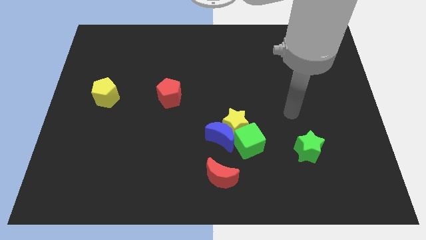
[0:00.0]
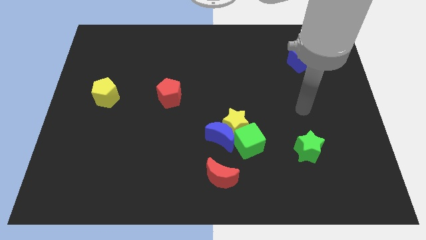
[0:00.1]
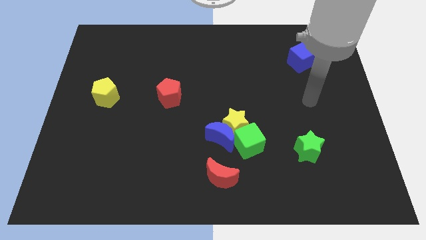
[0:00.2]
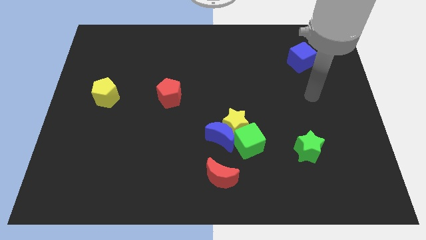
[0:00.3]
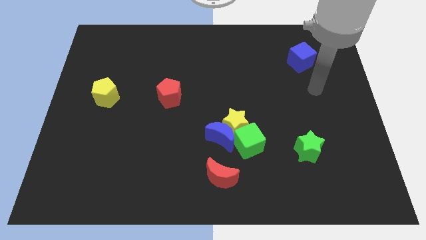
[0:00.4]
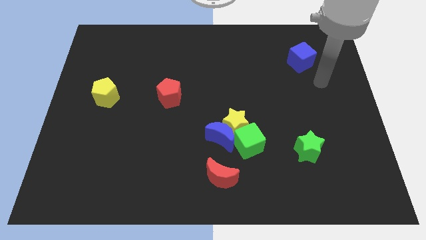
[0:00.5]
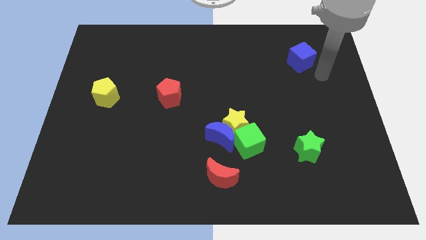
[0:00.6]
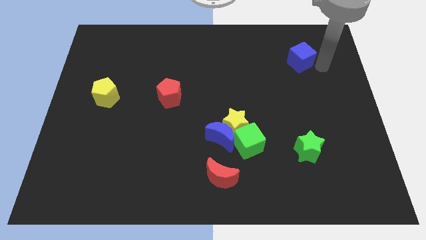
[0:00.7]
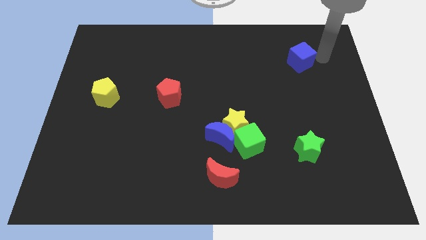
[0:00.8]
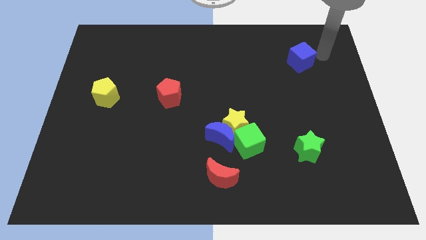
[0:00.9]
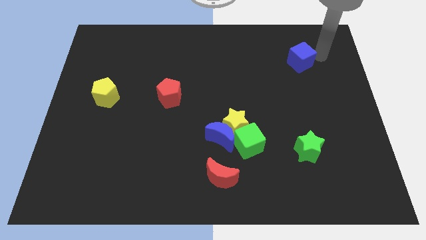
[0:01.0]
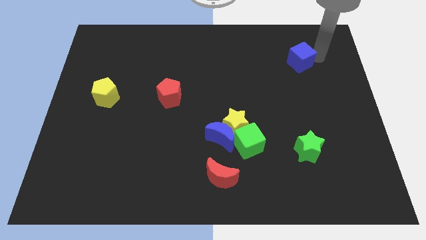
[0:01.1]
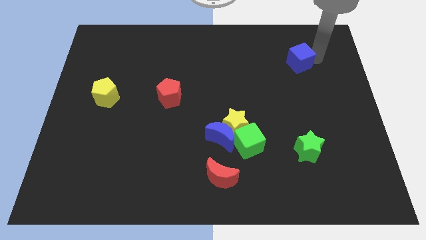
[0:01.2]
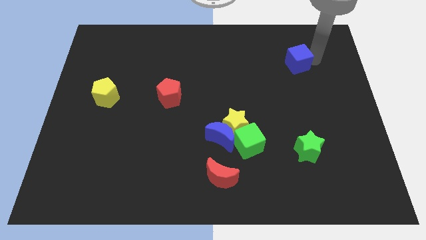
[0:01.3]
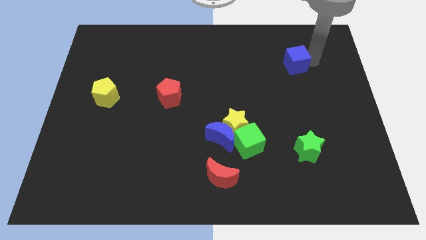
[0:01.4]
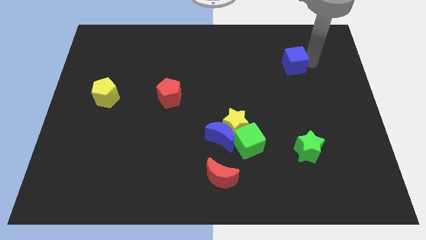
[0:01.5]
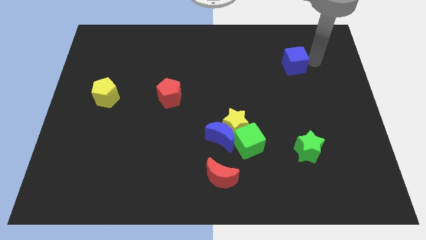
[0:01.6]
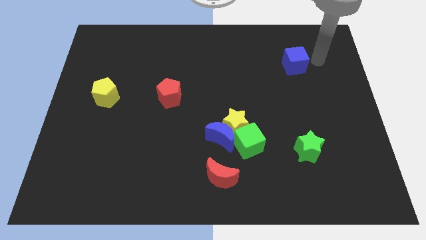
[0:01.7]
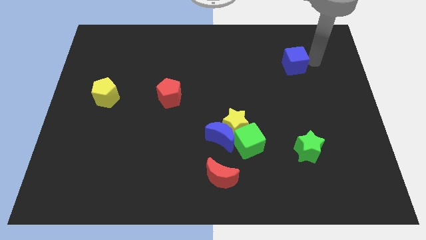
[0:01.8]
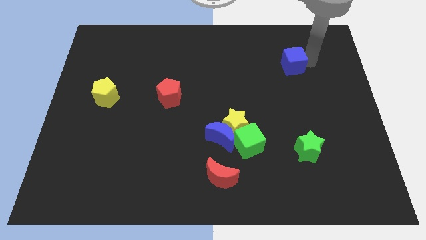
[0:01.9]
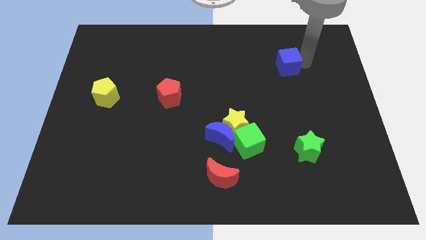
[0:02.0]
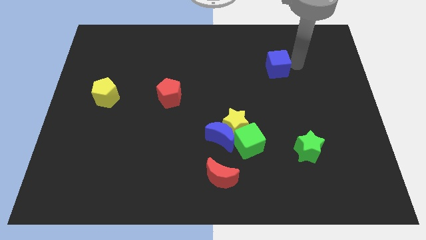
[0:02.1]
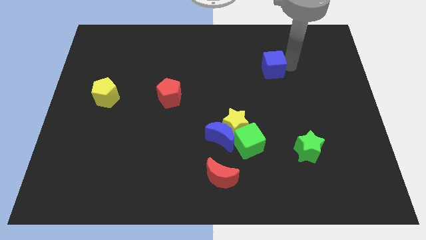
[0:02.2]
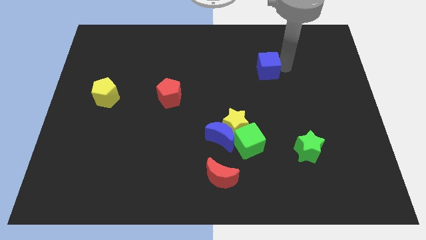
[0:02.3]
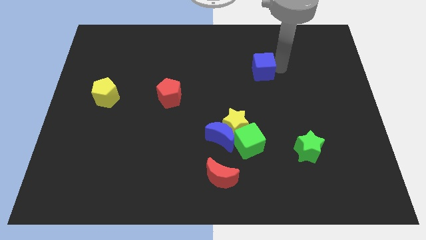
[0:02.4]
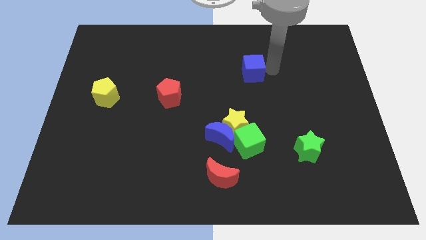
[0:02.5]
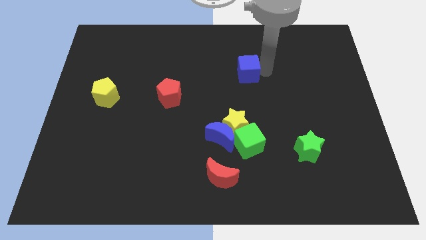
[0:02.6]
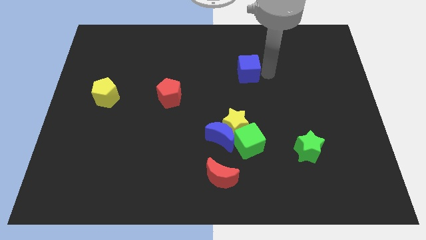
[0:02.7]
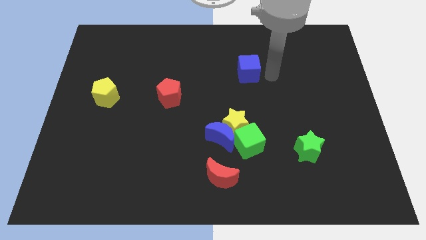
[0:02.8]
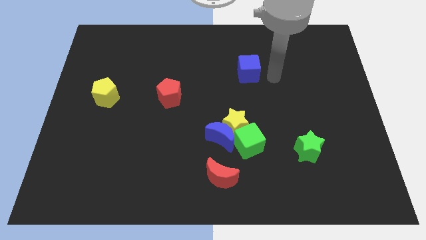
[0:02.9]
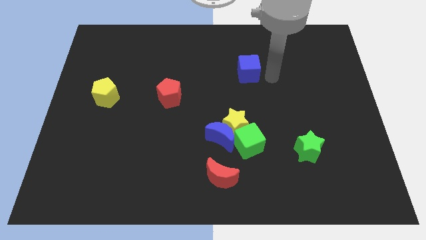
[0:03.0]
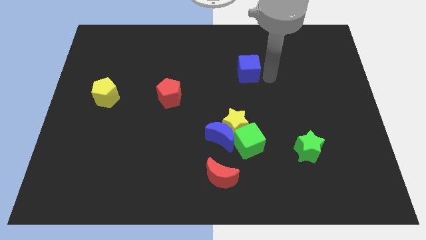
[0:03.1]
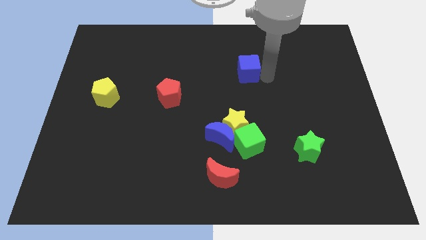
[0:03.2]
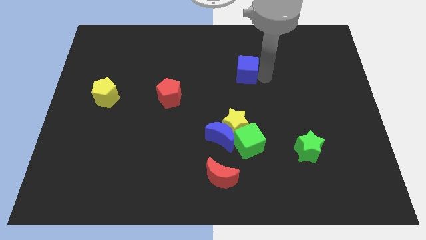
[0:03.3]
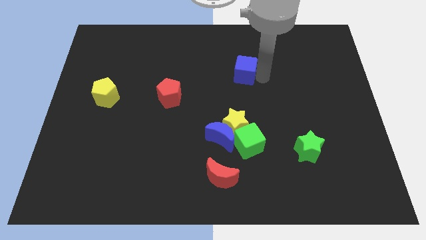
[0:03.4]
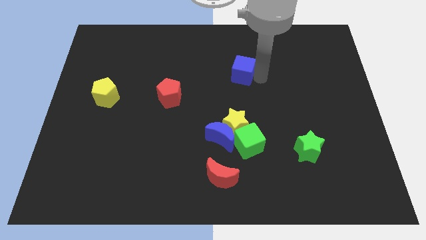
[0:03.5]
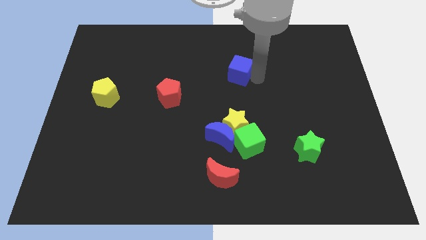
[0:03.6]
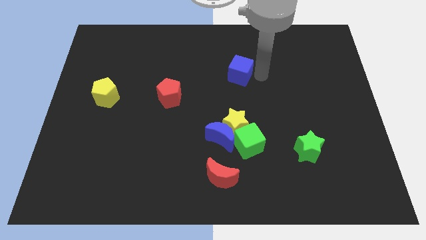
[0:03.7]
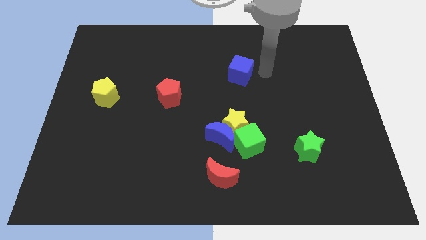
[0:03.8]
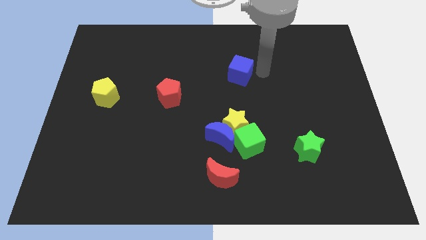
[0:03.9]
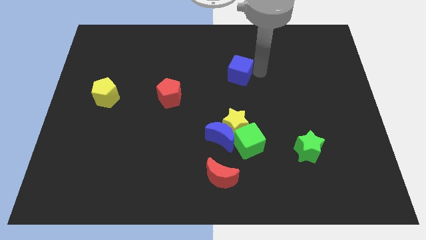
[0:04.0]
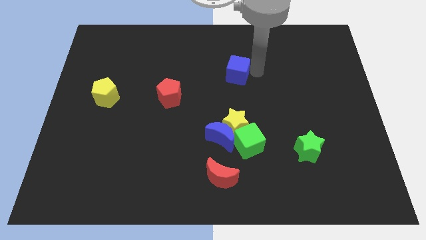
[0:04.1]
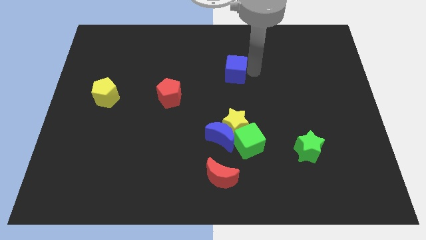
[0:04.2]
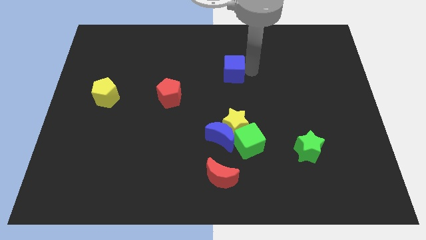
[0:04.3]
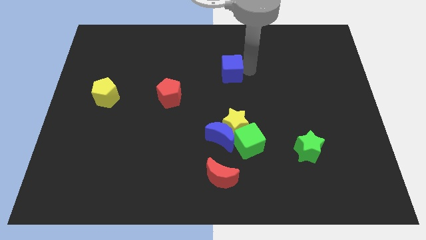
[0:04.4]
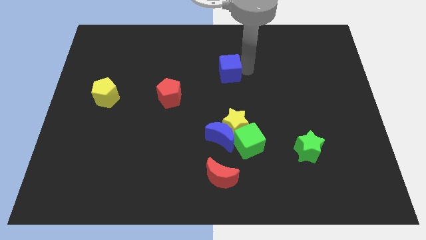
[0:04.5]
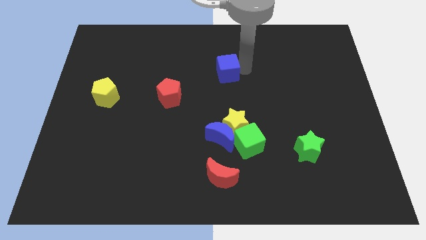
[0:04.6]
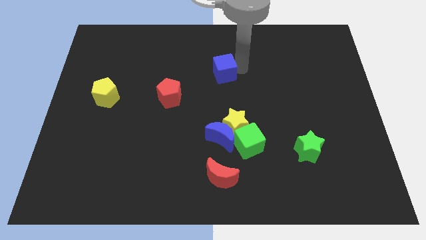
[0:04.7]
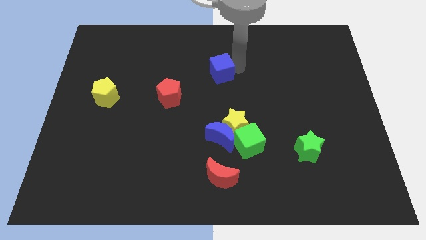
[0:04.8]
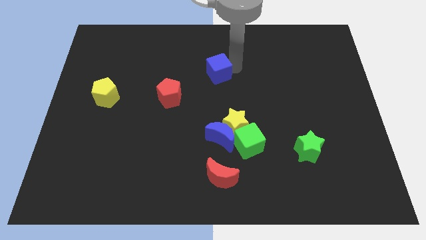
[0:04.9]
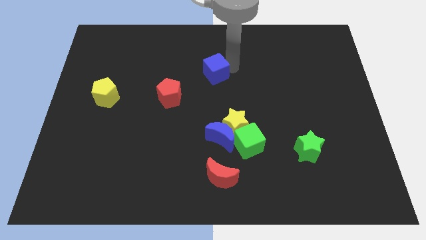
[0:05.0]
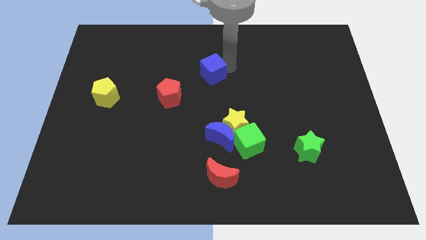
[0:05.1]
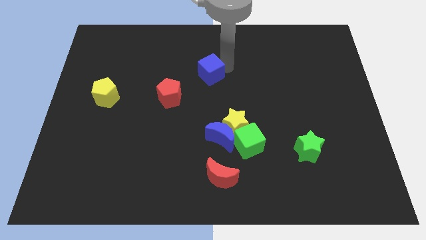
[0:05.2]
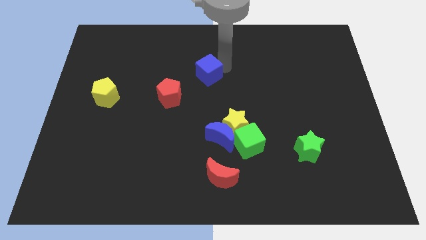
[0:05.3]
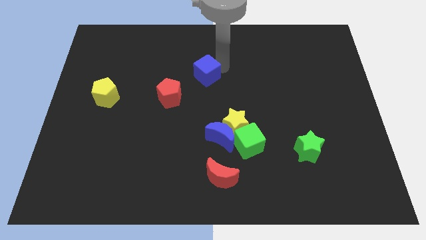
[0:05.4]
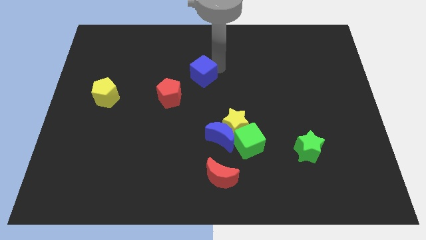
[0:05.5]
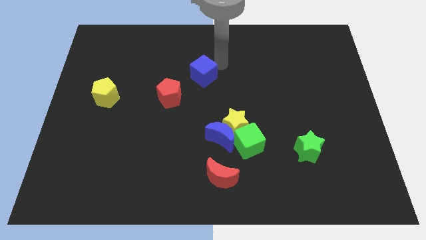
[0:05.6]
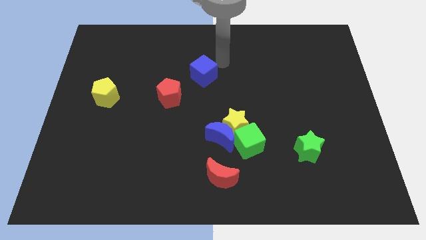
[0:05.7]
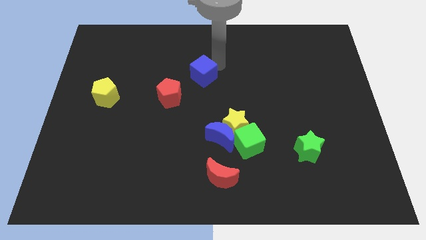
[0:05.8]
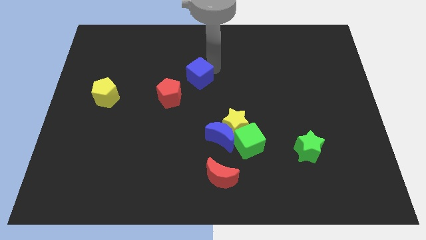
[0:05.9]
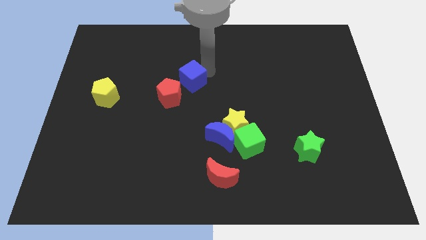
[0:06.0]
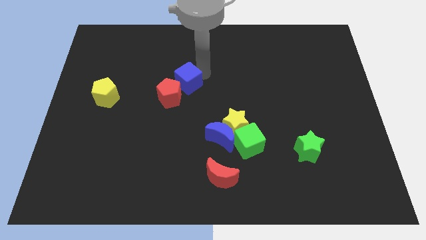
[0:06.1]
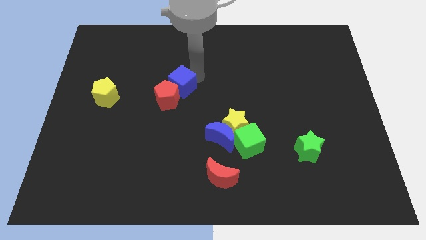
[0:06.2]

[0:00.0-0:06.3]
move the blue cube close to the red pentagon

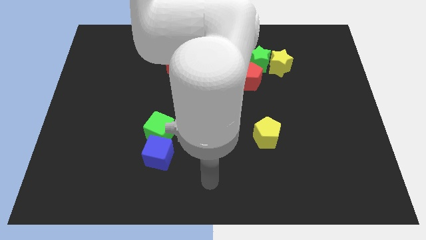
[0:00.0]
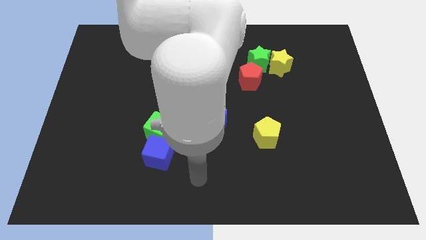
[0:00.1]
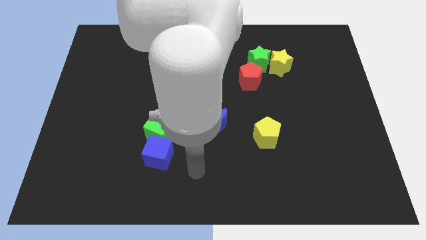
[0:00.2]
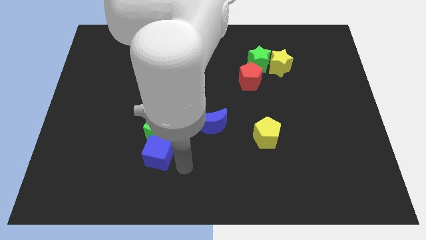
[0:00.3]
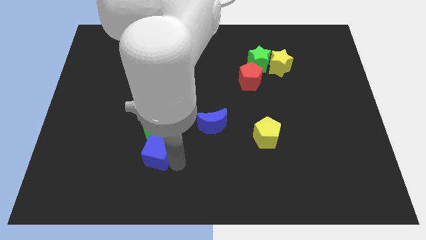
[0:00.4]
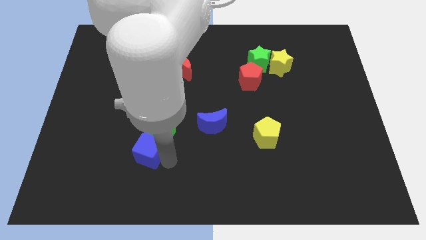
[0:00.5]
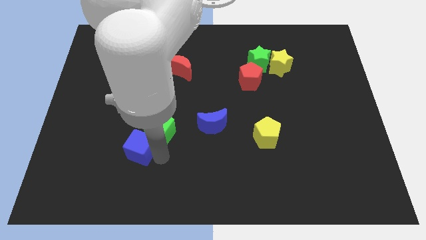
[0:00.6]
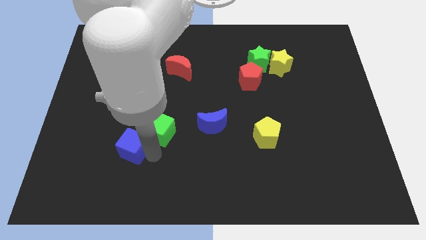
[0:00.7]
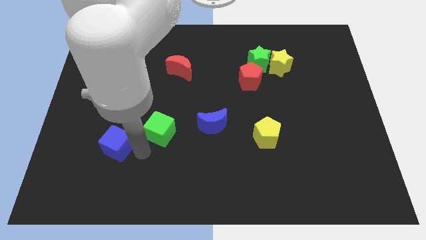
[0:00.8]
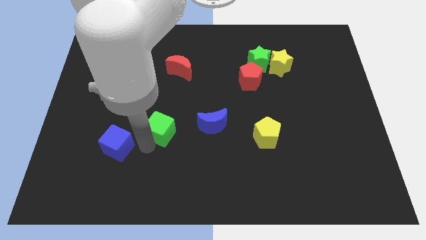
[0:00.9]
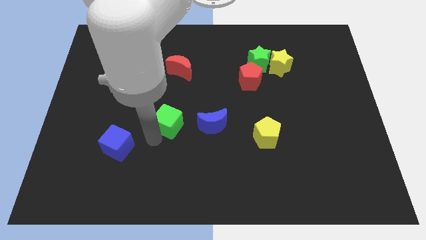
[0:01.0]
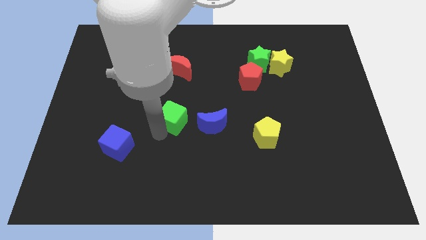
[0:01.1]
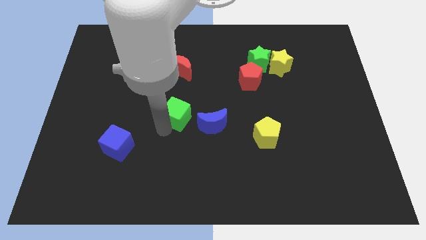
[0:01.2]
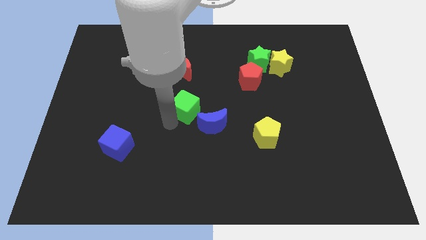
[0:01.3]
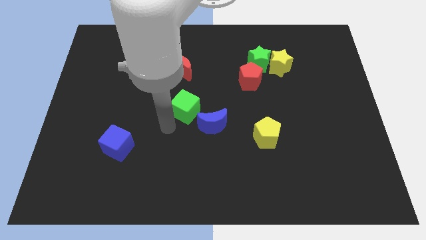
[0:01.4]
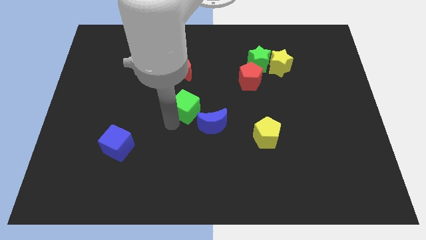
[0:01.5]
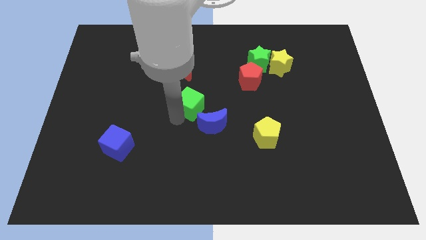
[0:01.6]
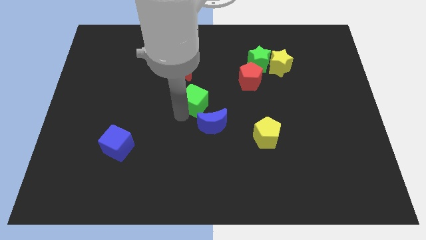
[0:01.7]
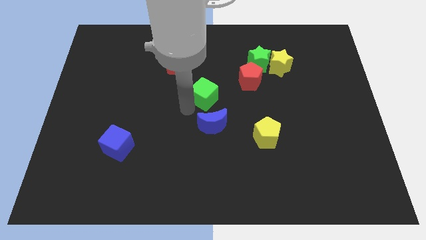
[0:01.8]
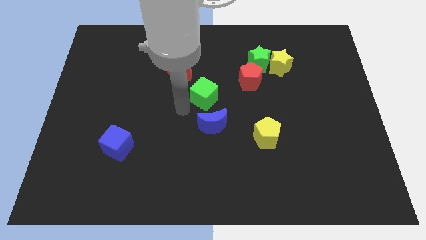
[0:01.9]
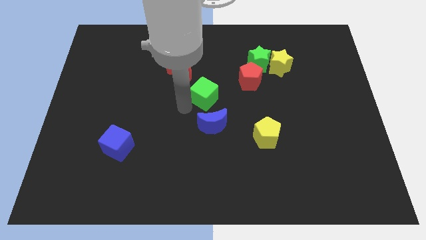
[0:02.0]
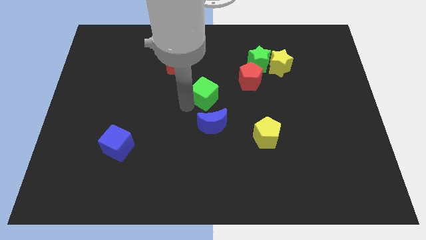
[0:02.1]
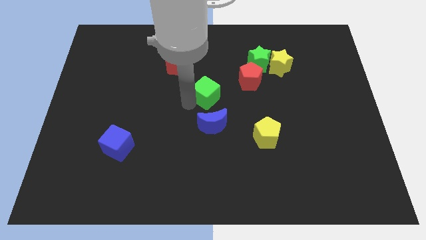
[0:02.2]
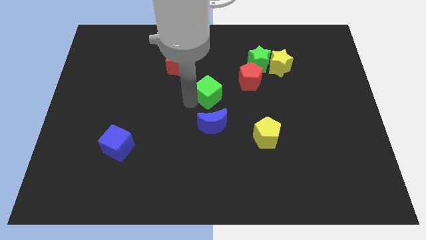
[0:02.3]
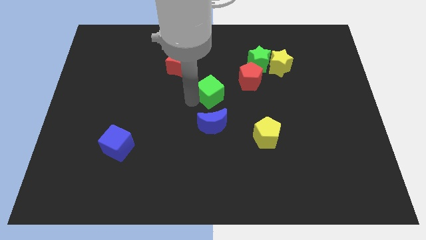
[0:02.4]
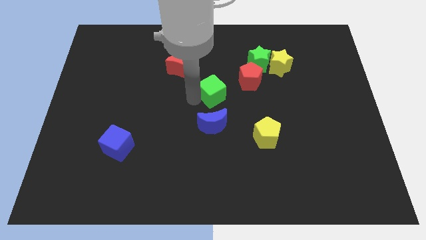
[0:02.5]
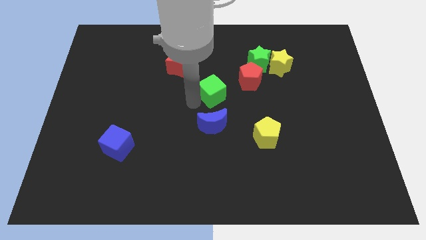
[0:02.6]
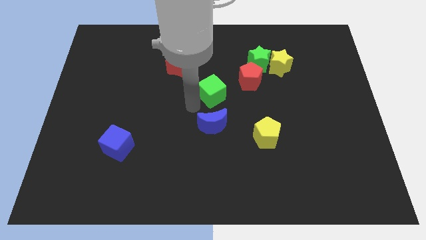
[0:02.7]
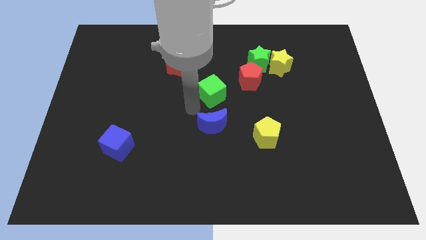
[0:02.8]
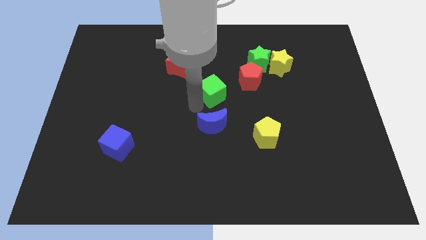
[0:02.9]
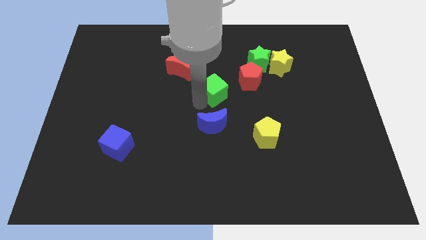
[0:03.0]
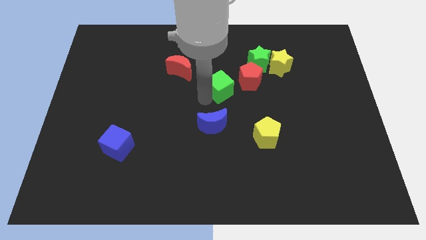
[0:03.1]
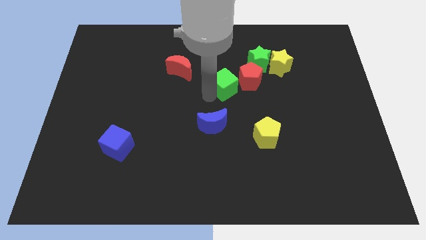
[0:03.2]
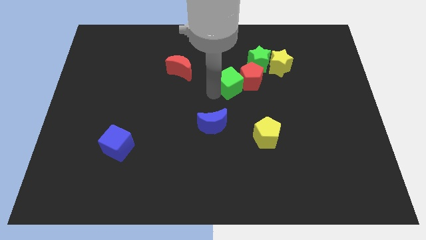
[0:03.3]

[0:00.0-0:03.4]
move the green cube to the red pentagon
